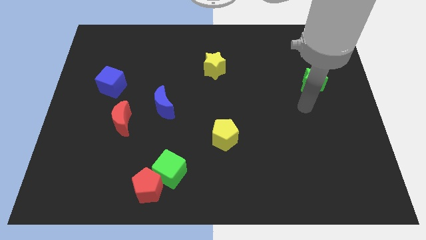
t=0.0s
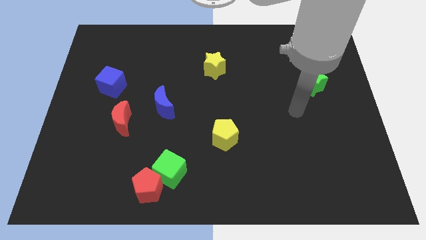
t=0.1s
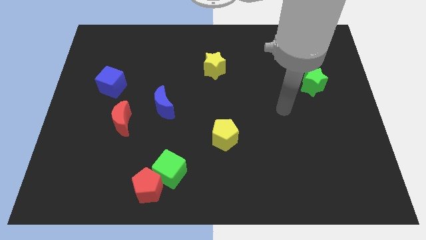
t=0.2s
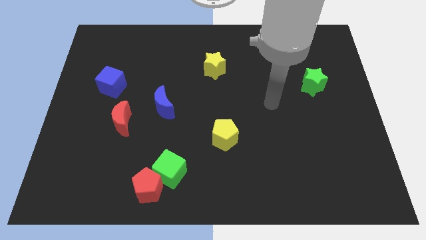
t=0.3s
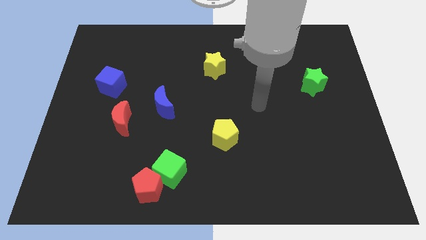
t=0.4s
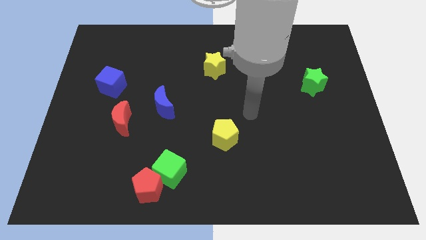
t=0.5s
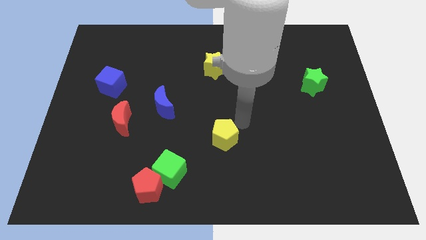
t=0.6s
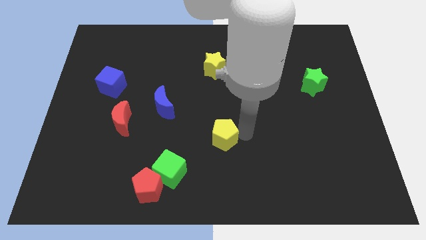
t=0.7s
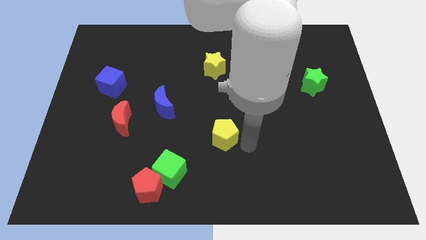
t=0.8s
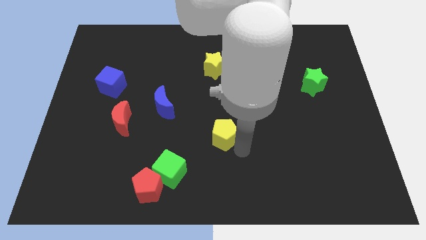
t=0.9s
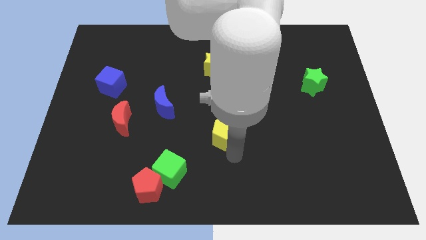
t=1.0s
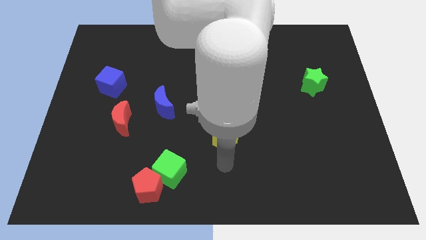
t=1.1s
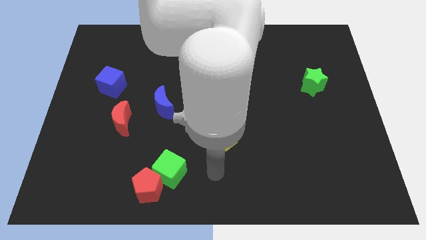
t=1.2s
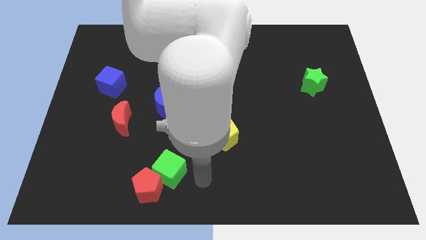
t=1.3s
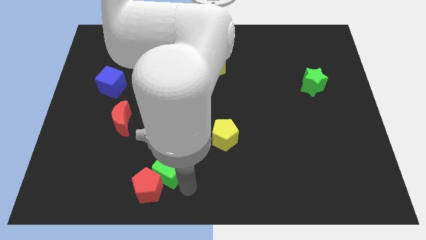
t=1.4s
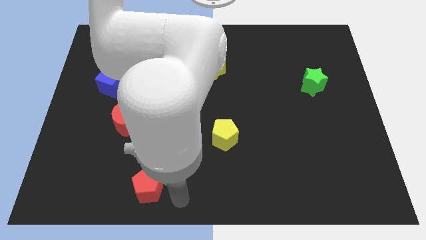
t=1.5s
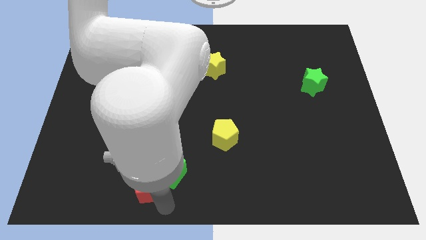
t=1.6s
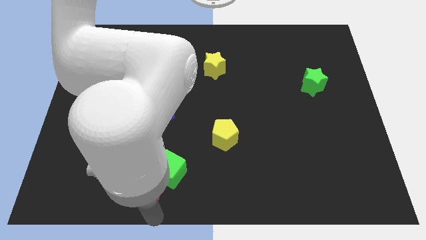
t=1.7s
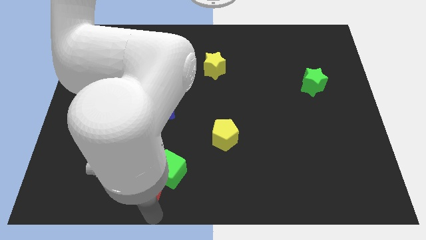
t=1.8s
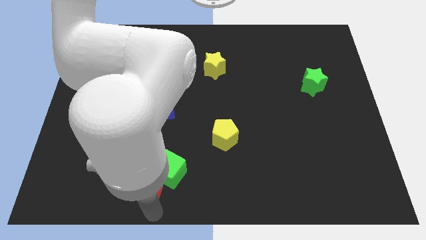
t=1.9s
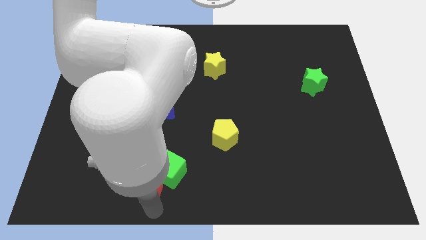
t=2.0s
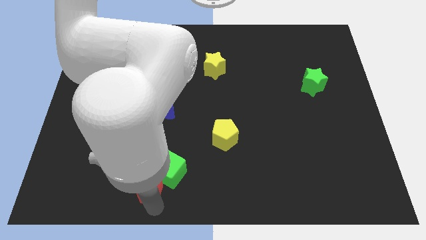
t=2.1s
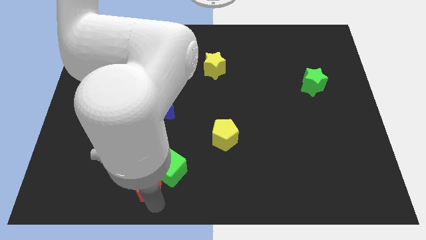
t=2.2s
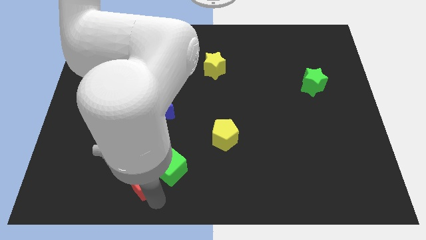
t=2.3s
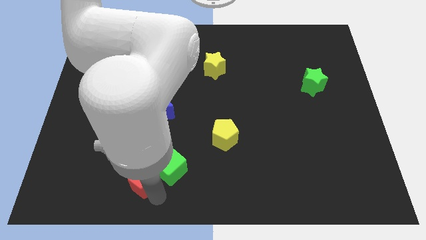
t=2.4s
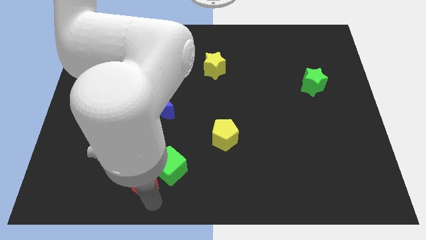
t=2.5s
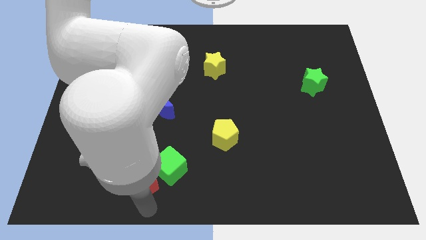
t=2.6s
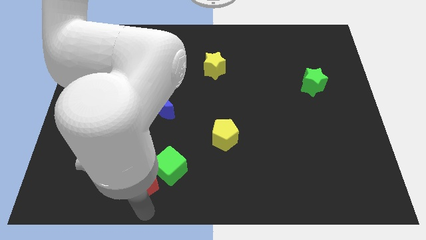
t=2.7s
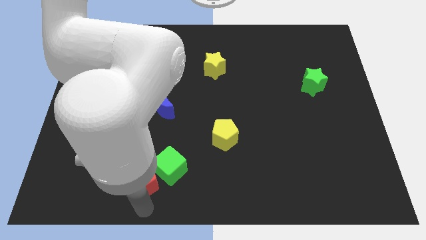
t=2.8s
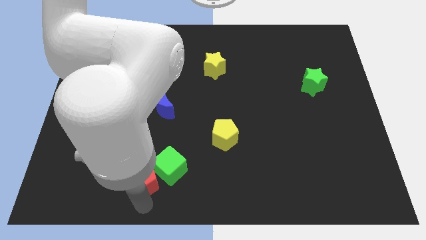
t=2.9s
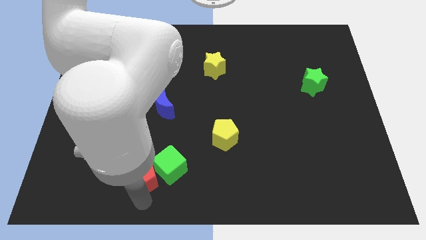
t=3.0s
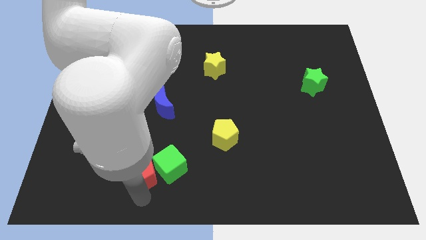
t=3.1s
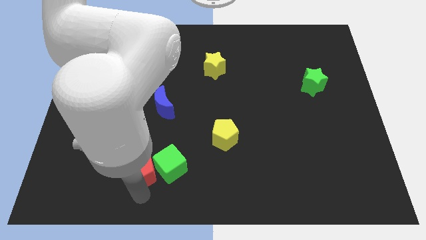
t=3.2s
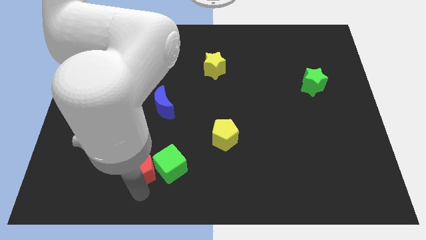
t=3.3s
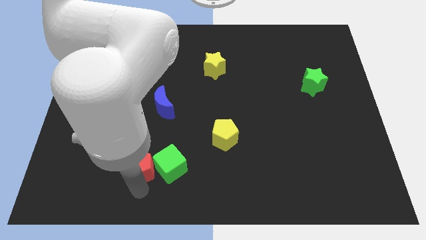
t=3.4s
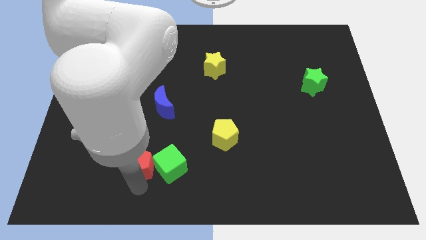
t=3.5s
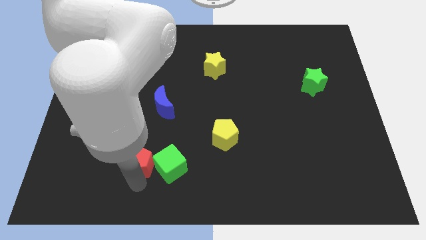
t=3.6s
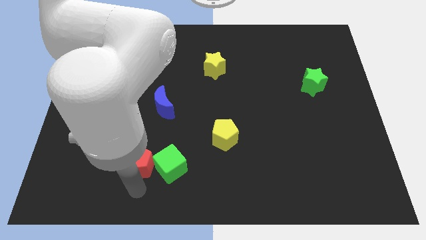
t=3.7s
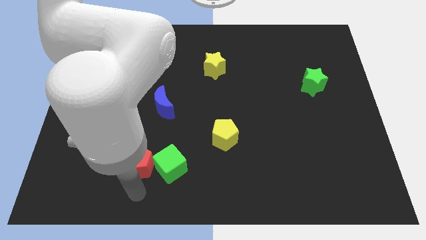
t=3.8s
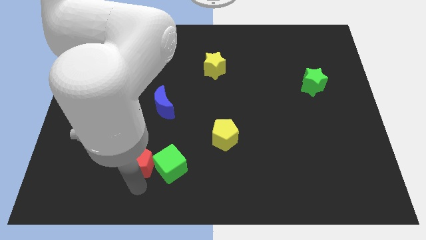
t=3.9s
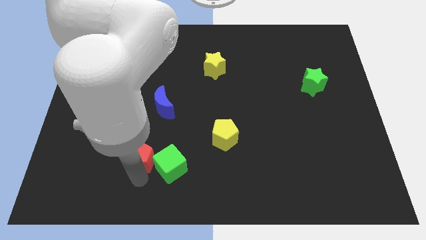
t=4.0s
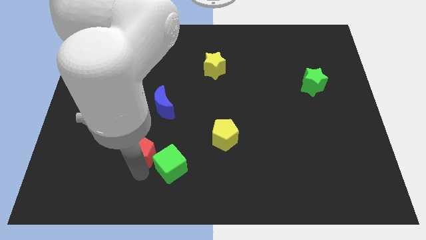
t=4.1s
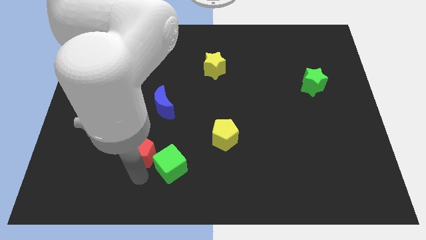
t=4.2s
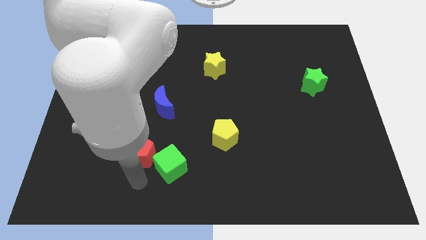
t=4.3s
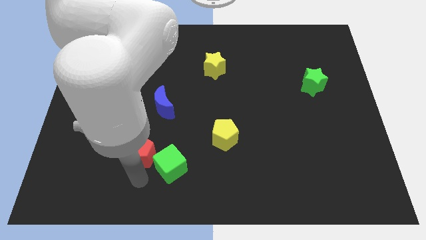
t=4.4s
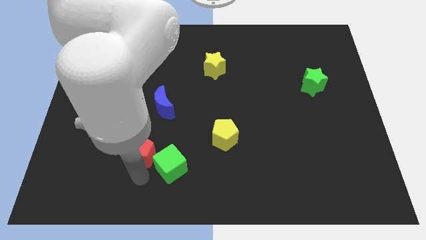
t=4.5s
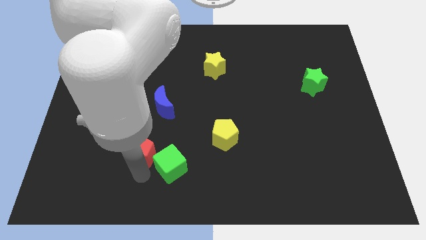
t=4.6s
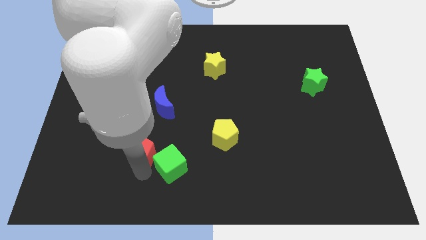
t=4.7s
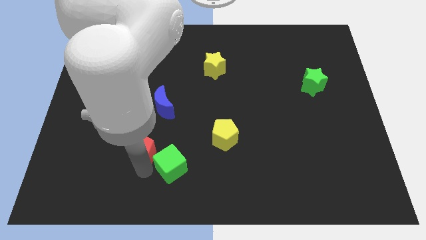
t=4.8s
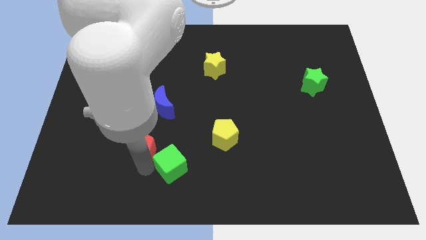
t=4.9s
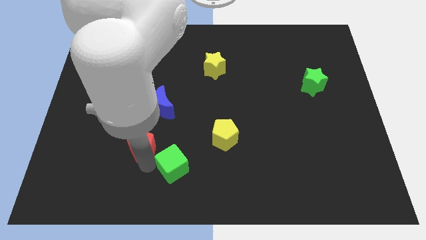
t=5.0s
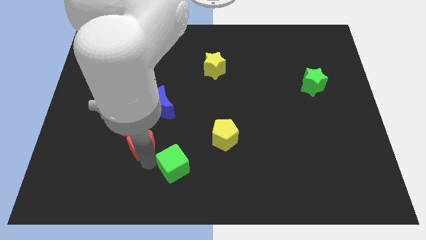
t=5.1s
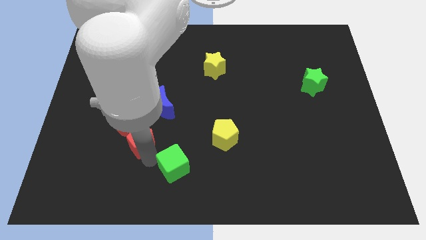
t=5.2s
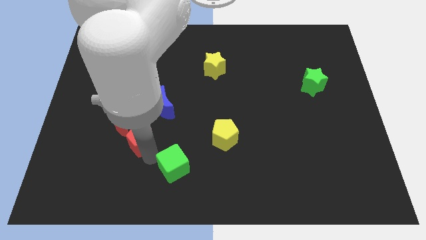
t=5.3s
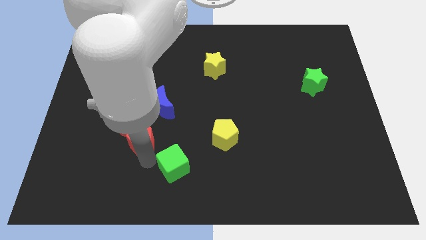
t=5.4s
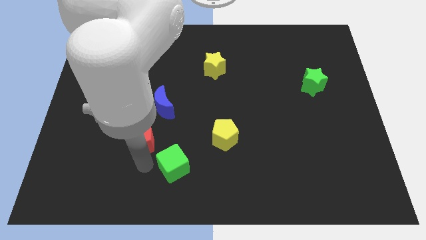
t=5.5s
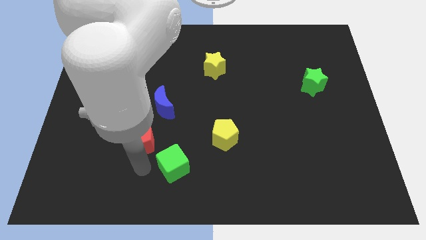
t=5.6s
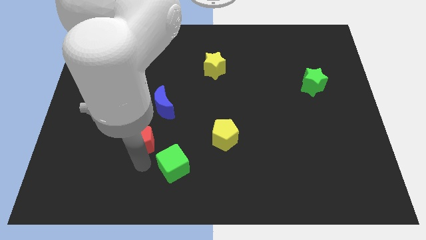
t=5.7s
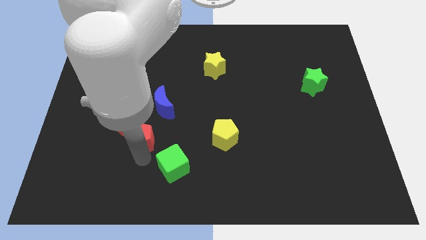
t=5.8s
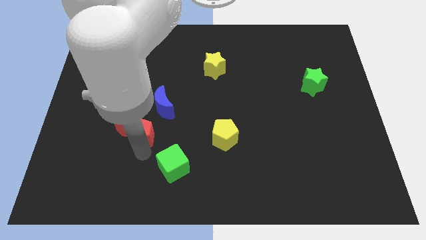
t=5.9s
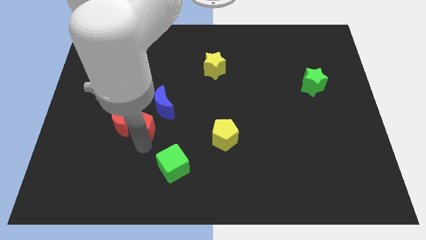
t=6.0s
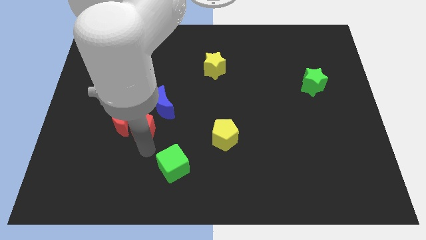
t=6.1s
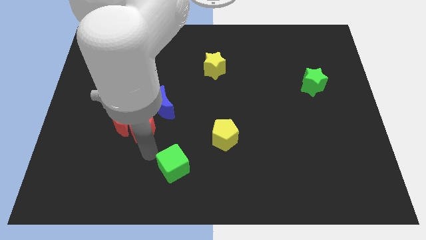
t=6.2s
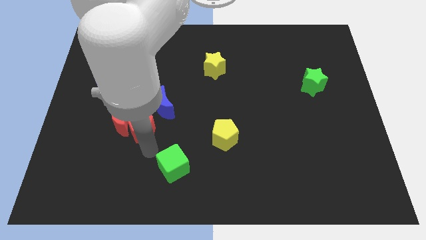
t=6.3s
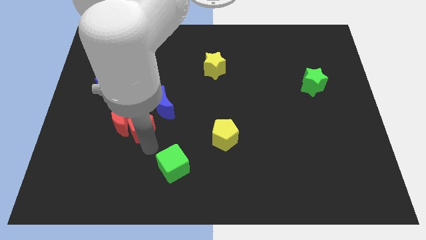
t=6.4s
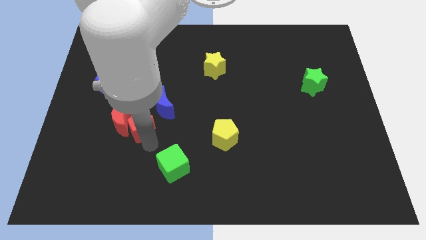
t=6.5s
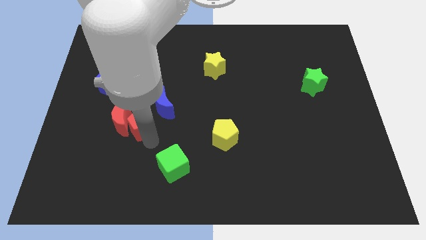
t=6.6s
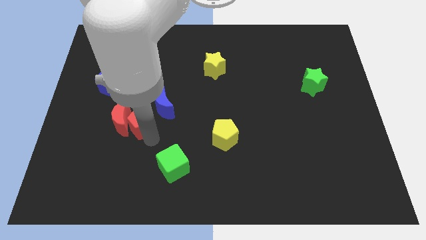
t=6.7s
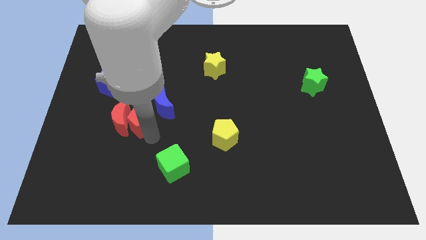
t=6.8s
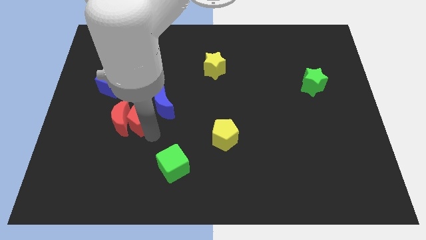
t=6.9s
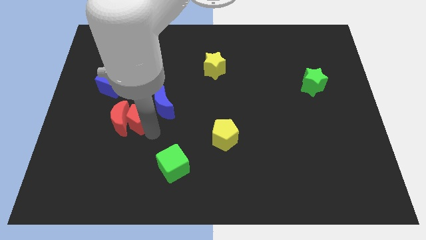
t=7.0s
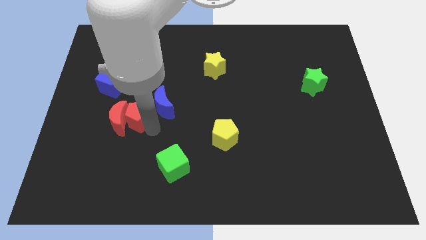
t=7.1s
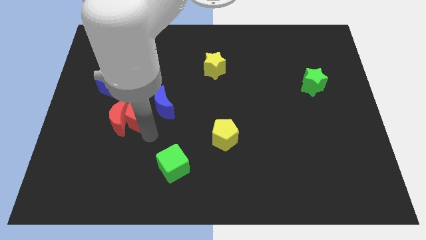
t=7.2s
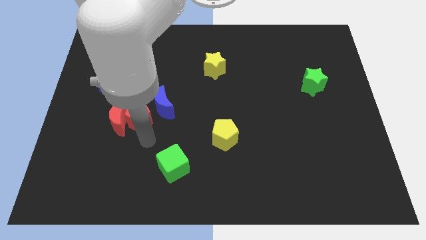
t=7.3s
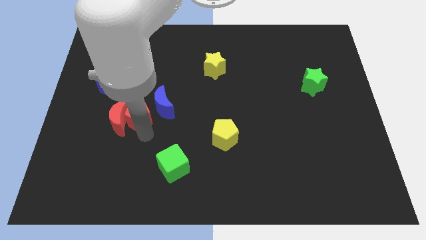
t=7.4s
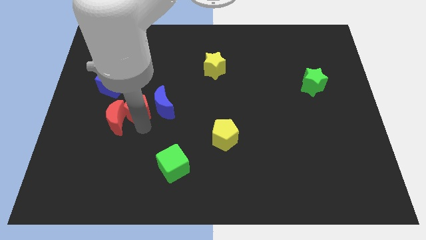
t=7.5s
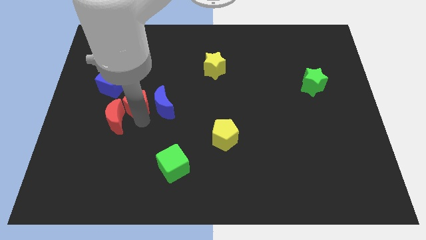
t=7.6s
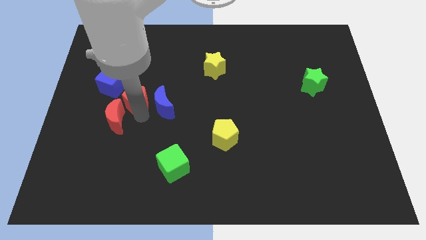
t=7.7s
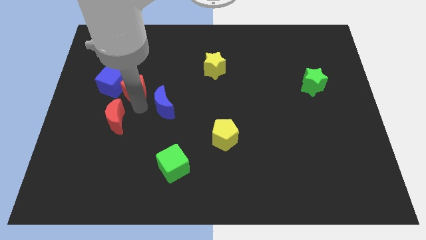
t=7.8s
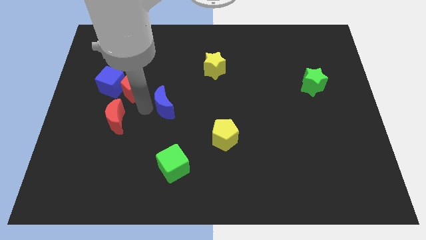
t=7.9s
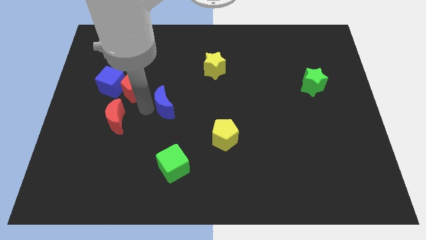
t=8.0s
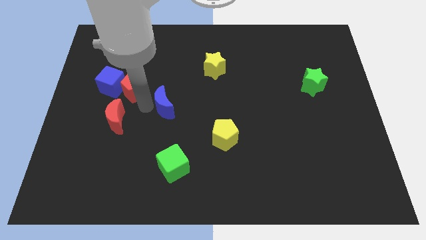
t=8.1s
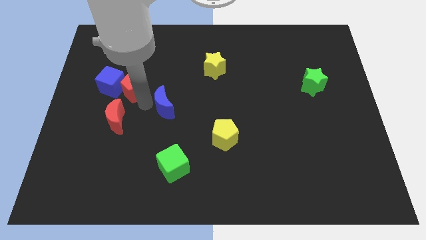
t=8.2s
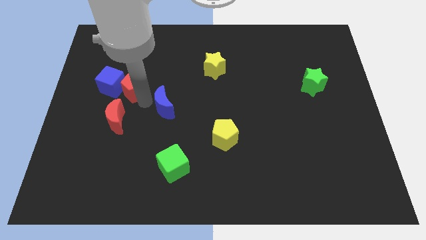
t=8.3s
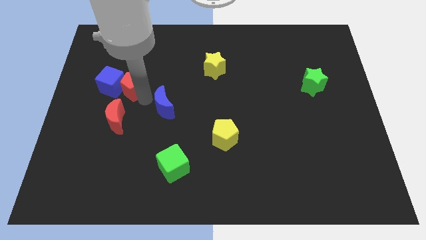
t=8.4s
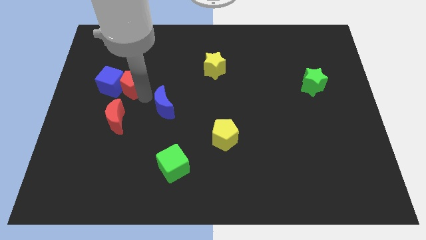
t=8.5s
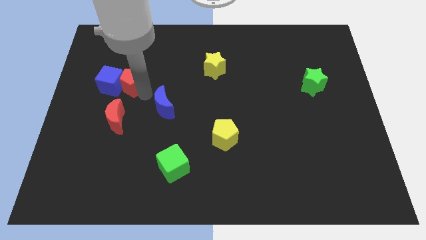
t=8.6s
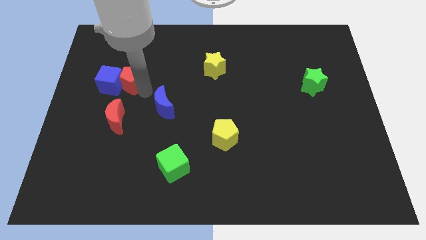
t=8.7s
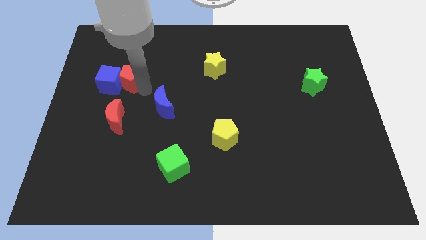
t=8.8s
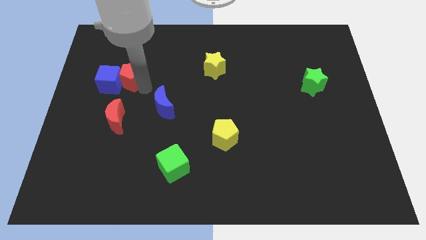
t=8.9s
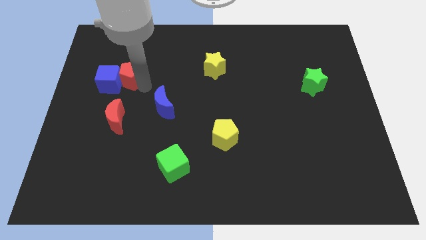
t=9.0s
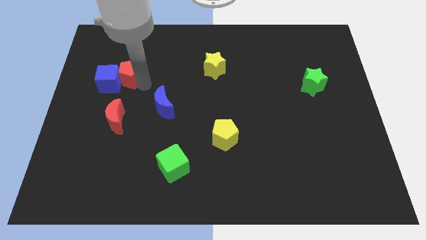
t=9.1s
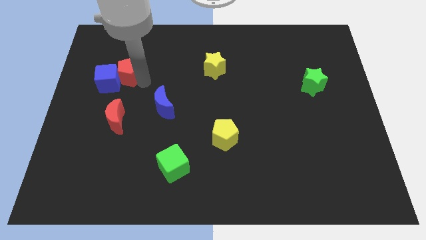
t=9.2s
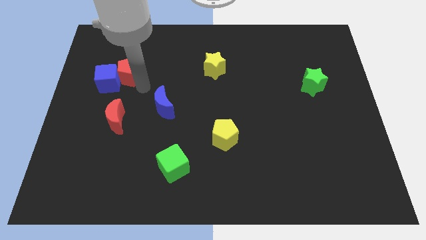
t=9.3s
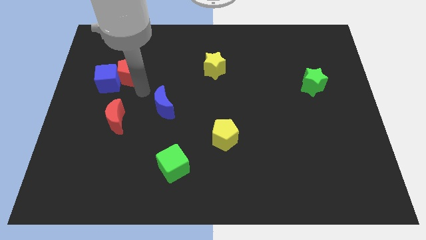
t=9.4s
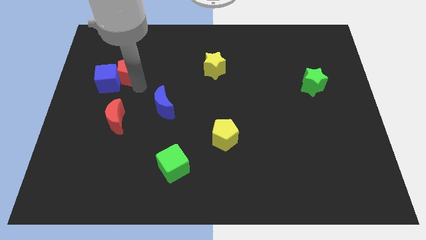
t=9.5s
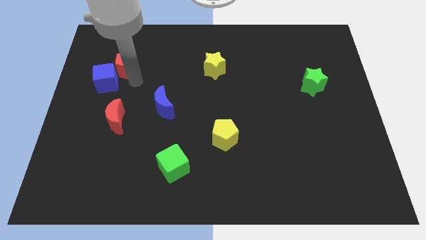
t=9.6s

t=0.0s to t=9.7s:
move the red pentagon to the top of the blue cube
